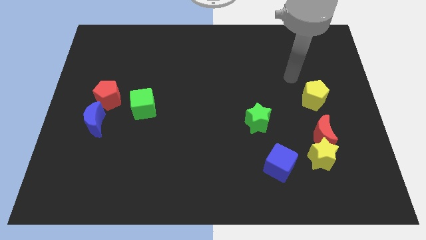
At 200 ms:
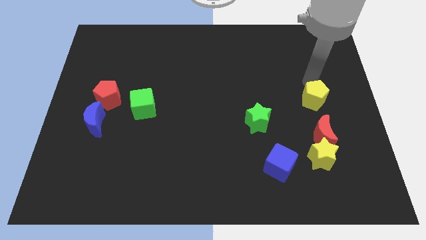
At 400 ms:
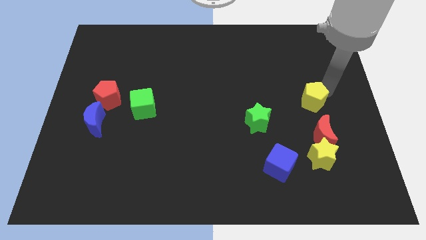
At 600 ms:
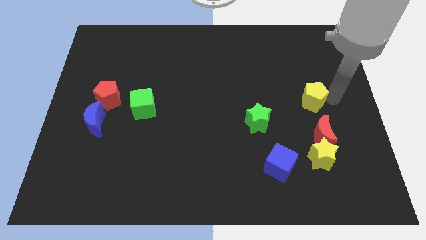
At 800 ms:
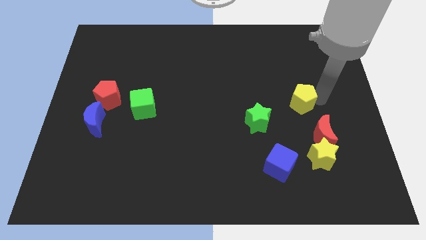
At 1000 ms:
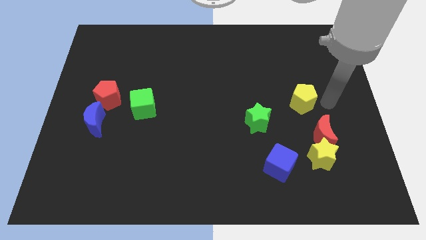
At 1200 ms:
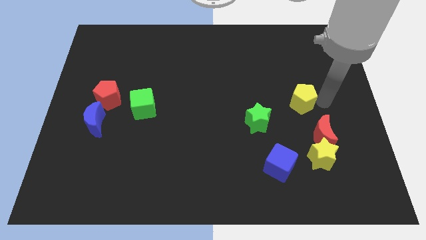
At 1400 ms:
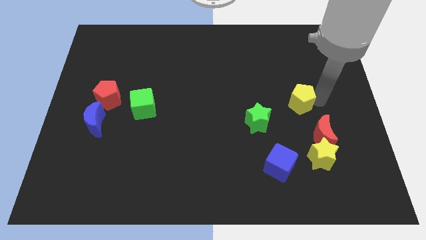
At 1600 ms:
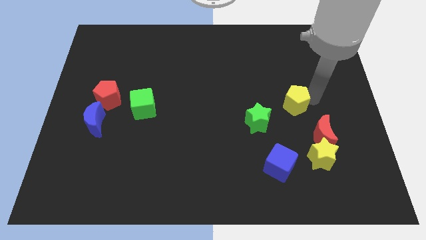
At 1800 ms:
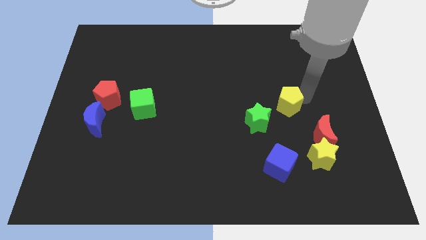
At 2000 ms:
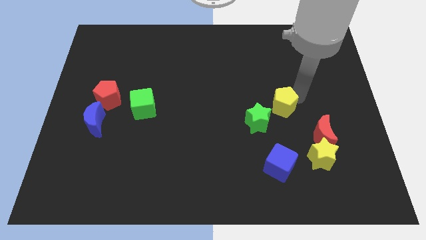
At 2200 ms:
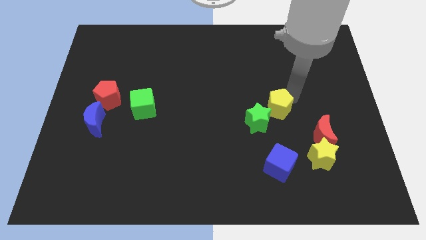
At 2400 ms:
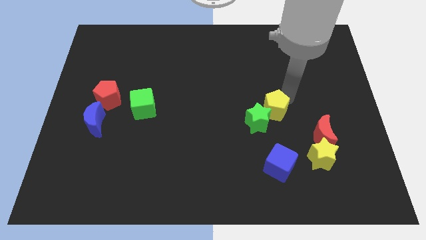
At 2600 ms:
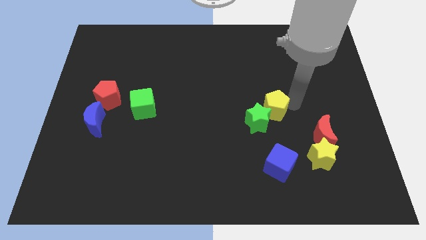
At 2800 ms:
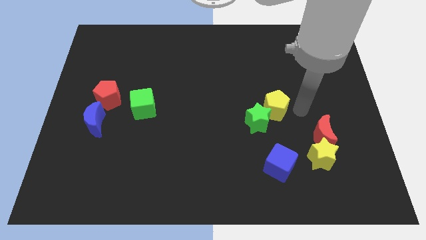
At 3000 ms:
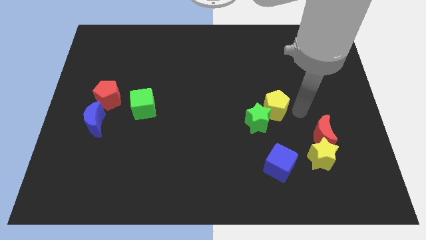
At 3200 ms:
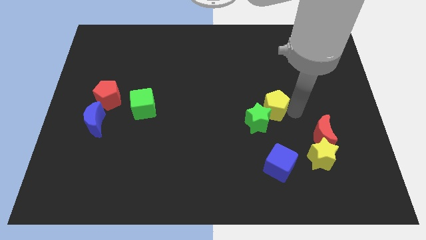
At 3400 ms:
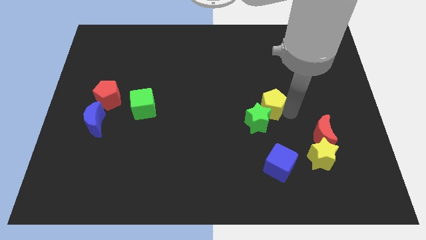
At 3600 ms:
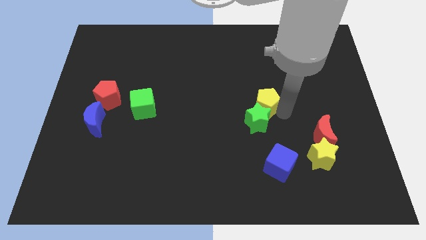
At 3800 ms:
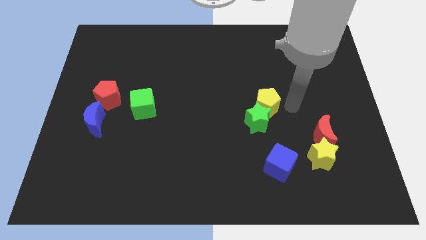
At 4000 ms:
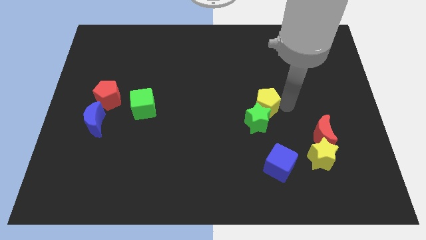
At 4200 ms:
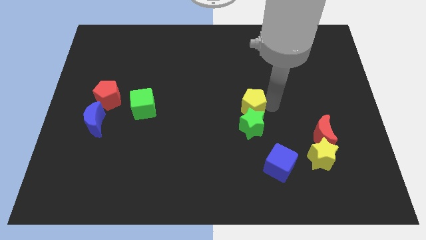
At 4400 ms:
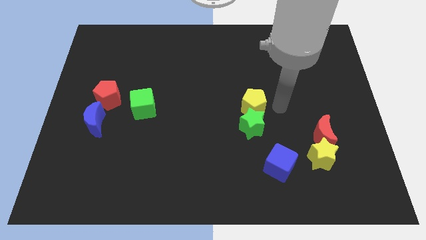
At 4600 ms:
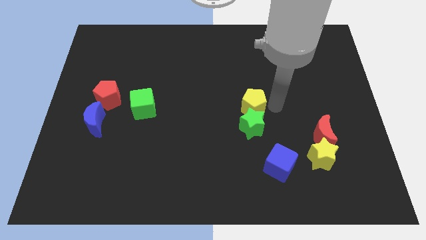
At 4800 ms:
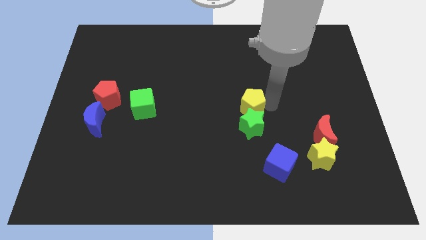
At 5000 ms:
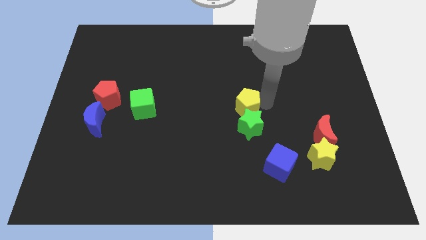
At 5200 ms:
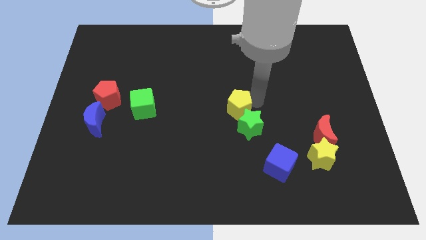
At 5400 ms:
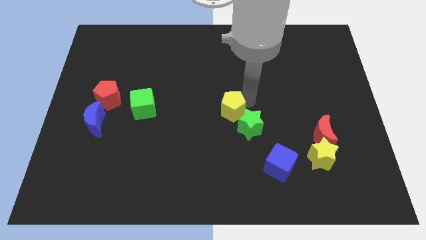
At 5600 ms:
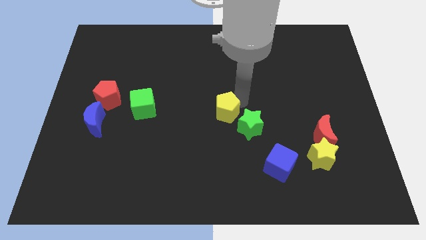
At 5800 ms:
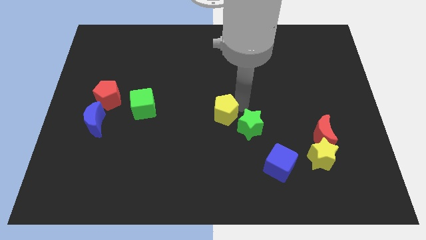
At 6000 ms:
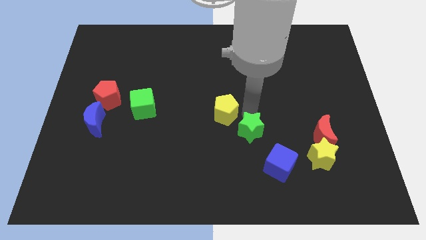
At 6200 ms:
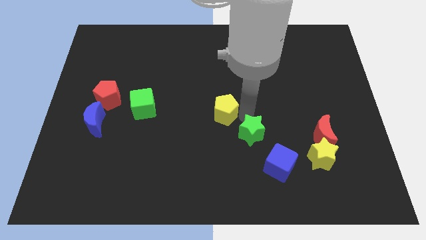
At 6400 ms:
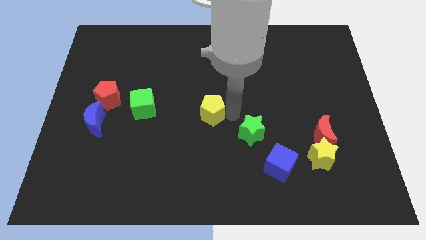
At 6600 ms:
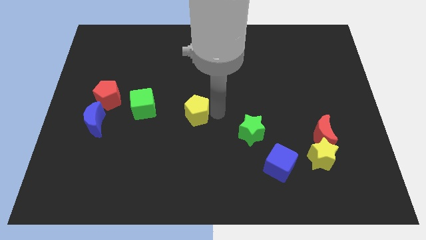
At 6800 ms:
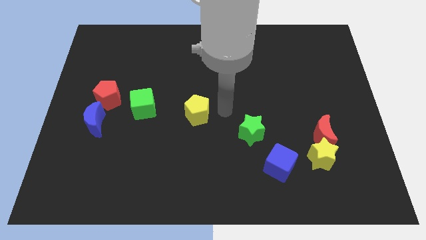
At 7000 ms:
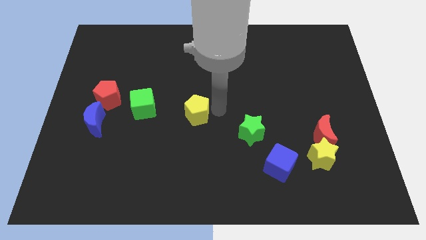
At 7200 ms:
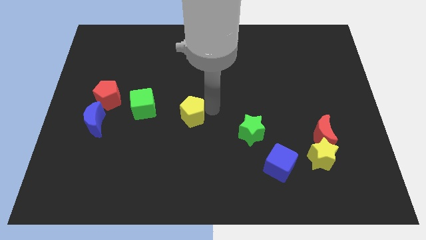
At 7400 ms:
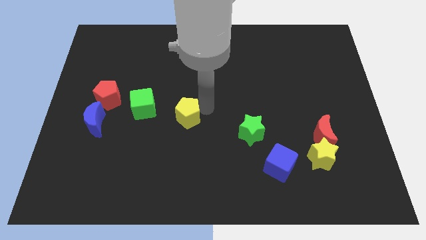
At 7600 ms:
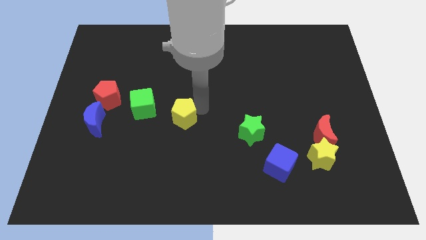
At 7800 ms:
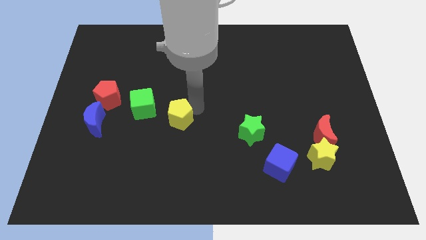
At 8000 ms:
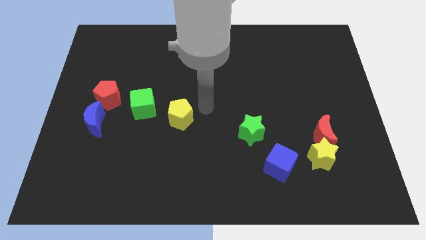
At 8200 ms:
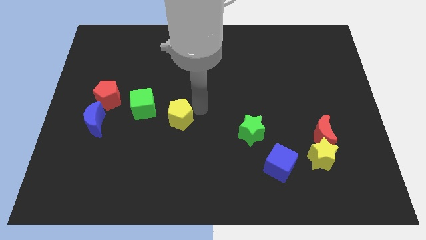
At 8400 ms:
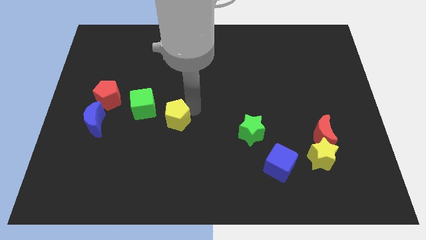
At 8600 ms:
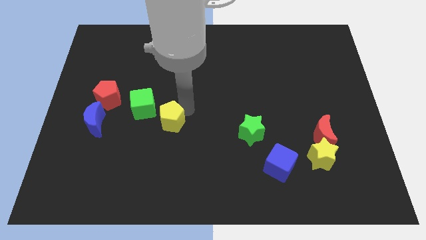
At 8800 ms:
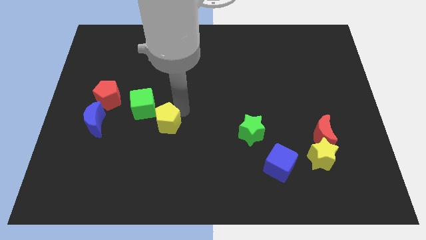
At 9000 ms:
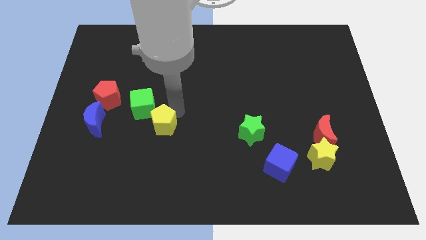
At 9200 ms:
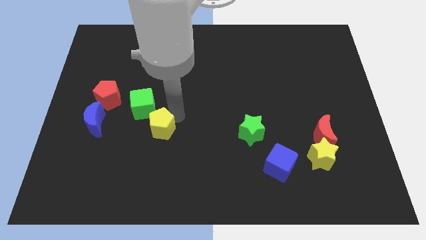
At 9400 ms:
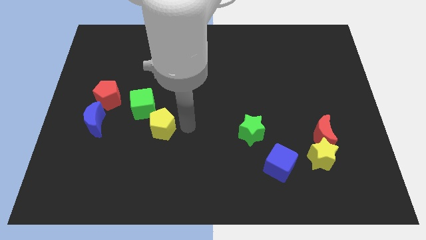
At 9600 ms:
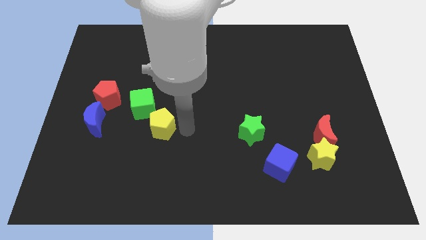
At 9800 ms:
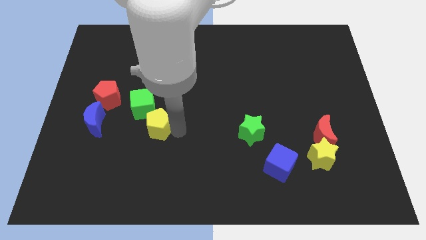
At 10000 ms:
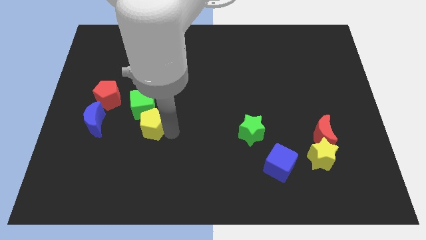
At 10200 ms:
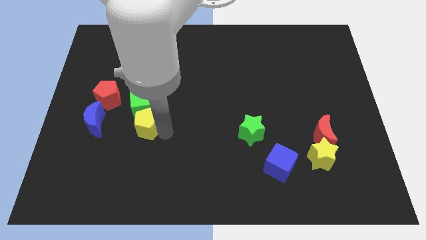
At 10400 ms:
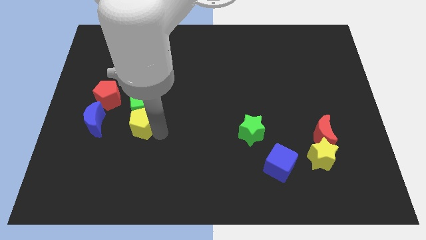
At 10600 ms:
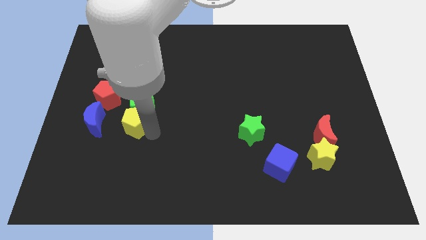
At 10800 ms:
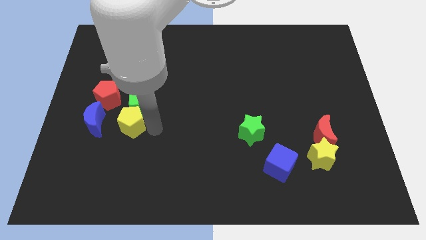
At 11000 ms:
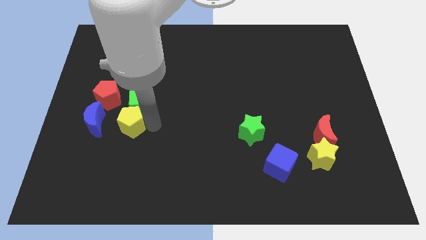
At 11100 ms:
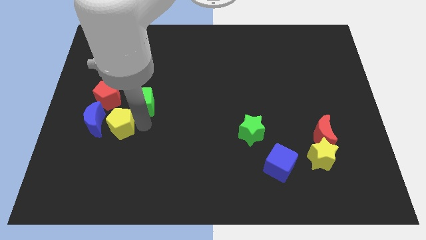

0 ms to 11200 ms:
slide the yellow pentagon close to the blue moon

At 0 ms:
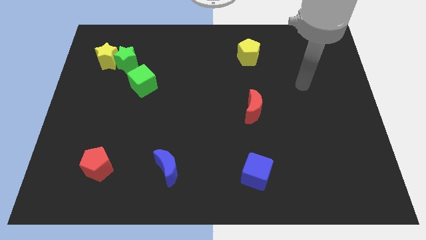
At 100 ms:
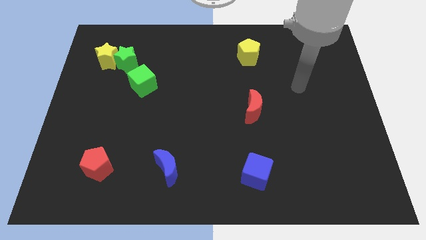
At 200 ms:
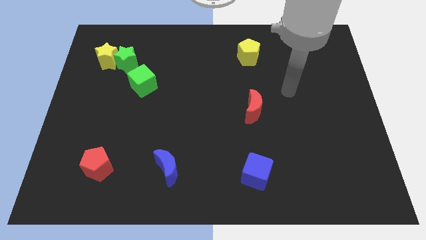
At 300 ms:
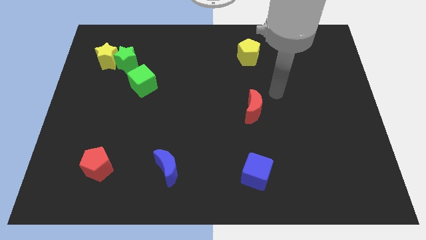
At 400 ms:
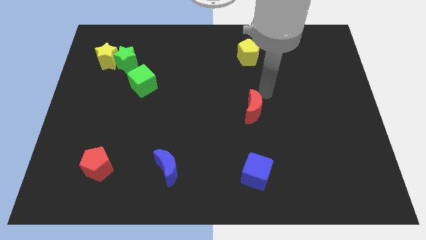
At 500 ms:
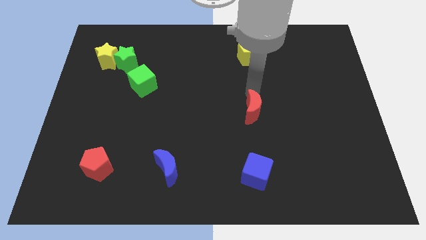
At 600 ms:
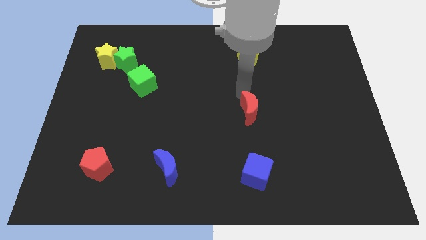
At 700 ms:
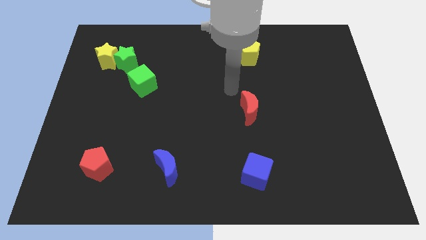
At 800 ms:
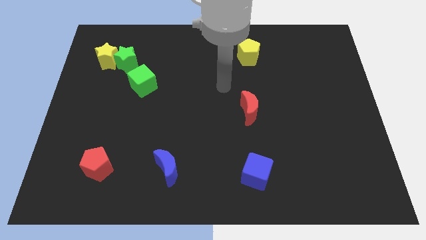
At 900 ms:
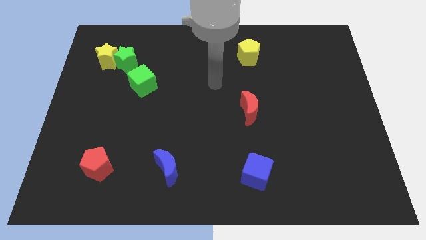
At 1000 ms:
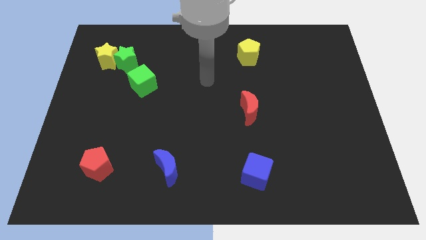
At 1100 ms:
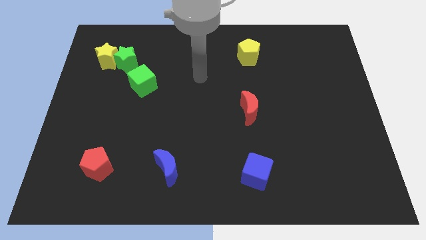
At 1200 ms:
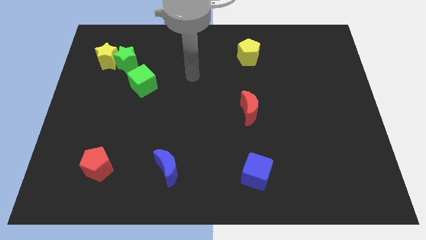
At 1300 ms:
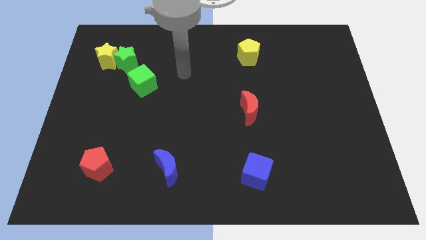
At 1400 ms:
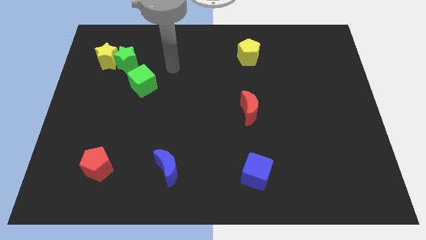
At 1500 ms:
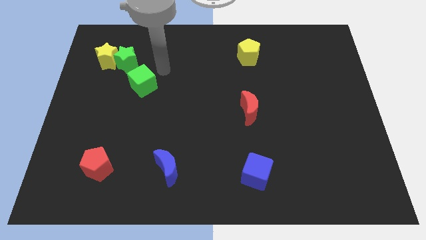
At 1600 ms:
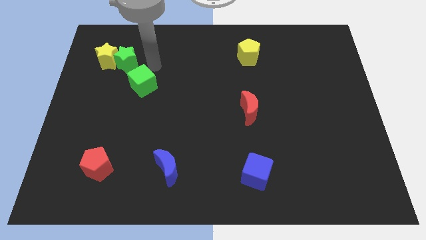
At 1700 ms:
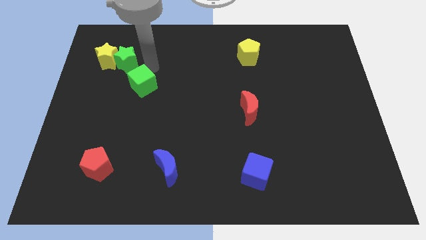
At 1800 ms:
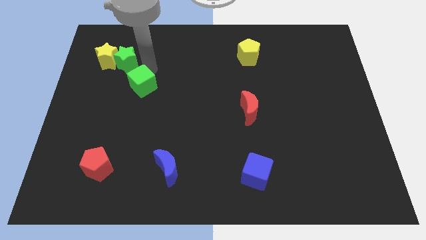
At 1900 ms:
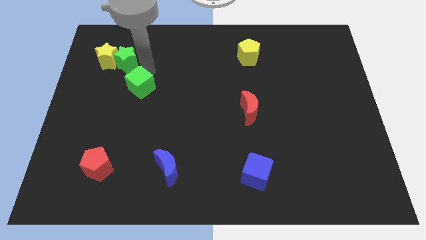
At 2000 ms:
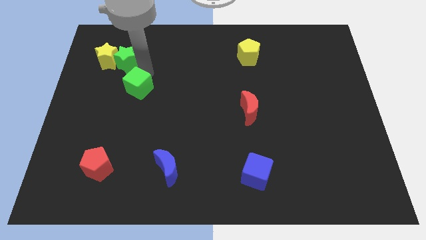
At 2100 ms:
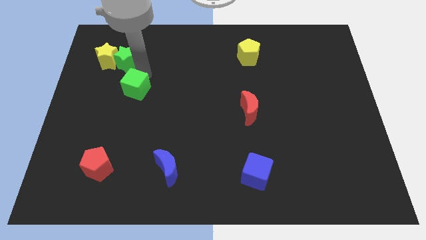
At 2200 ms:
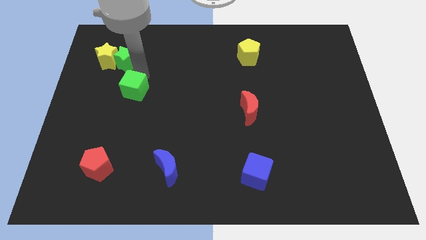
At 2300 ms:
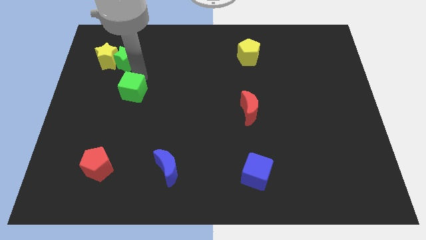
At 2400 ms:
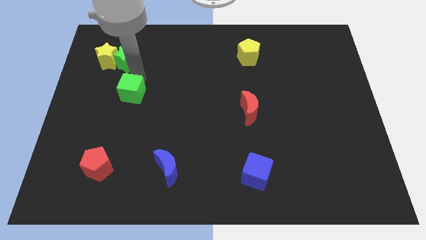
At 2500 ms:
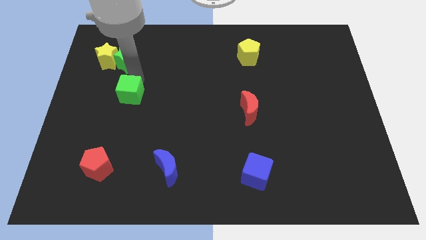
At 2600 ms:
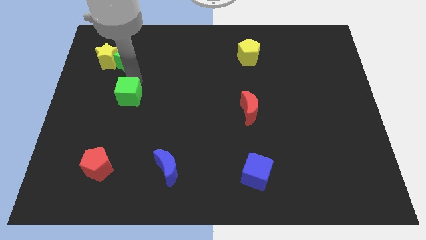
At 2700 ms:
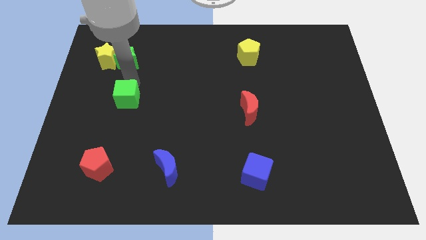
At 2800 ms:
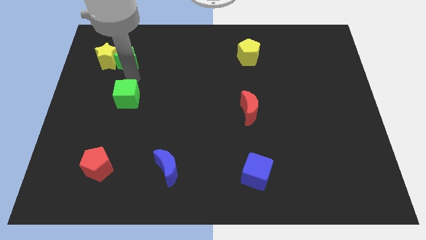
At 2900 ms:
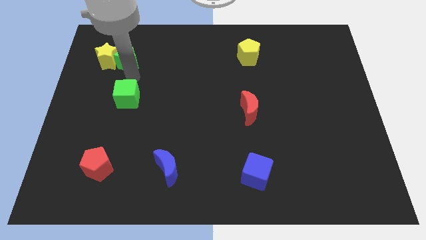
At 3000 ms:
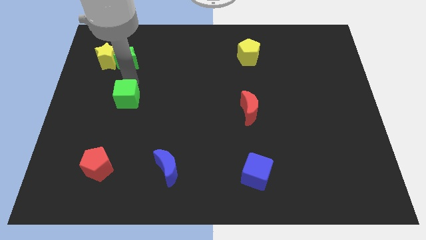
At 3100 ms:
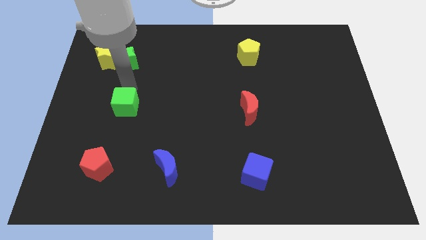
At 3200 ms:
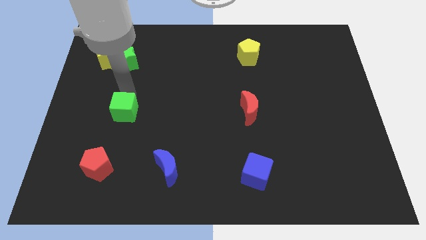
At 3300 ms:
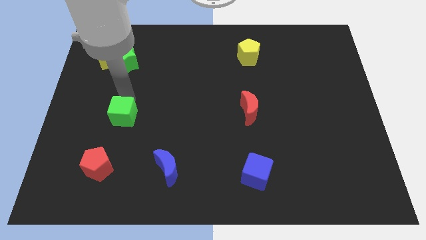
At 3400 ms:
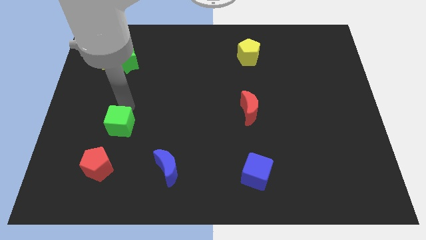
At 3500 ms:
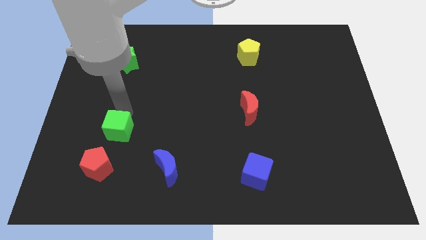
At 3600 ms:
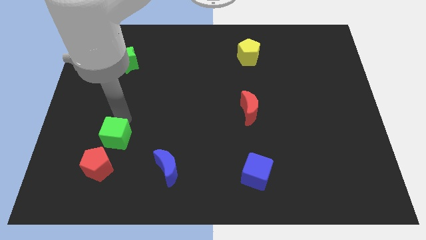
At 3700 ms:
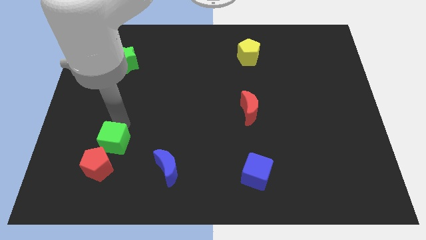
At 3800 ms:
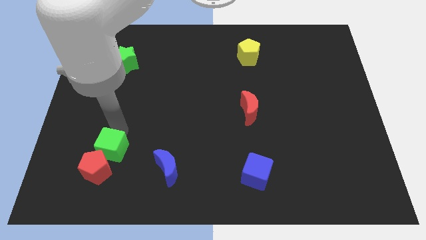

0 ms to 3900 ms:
push the green cube to the red pentagon
